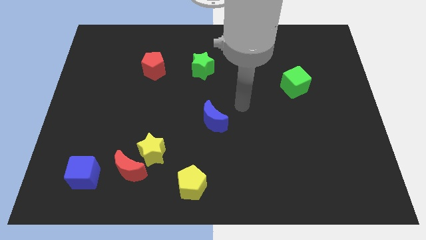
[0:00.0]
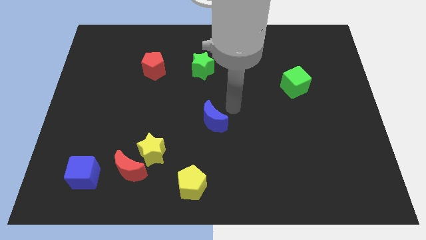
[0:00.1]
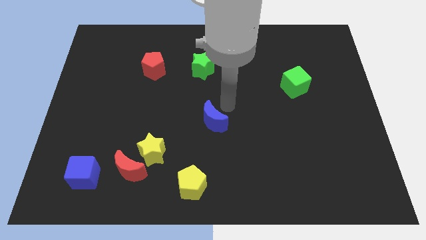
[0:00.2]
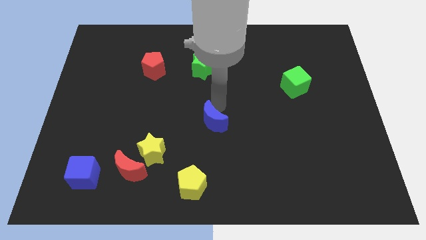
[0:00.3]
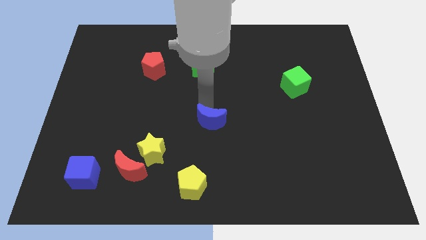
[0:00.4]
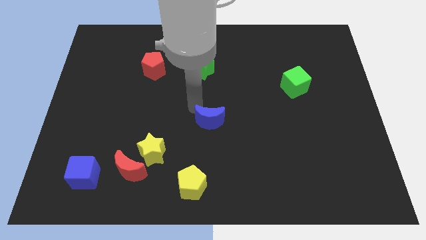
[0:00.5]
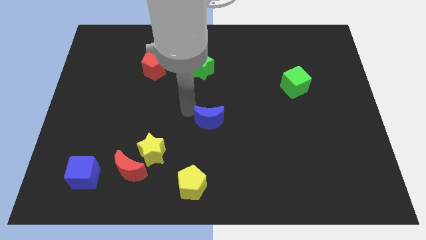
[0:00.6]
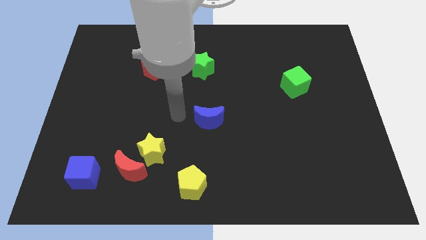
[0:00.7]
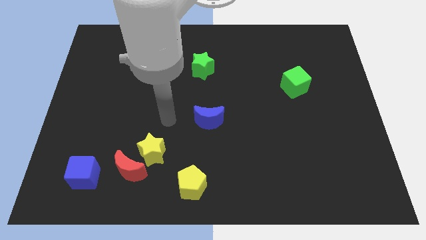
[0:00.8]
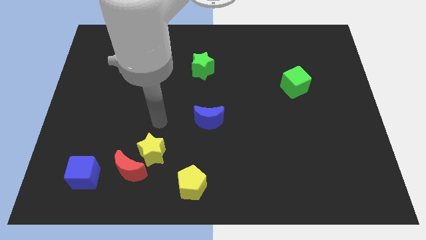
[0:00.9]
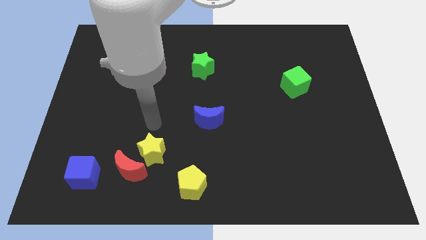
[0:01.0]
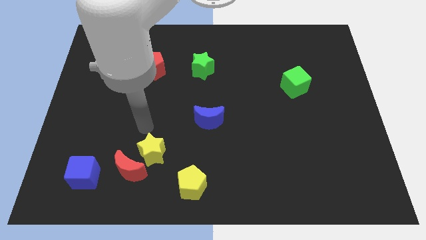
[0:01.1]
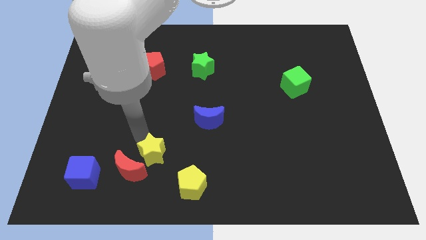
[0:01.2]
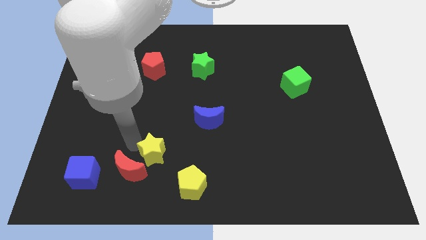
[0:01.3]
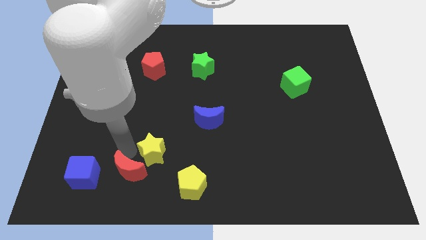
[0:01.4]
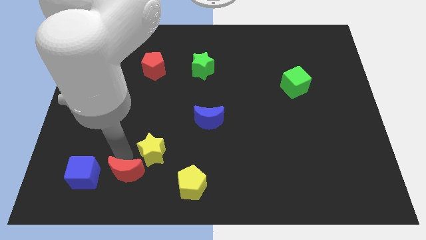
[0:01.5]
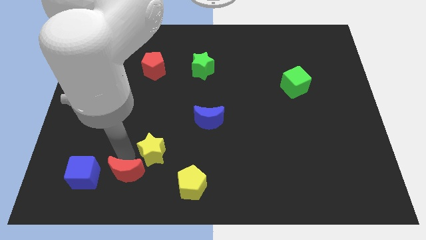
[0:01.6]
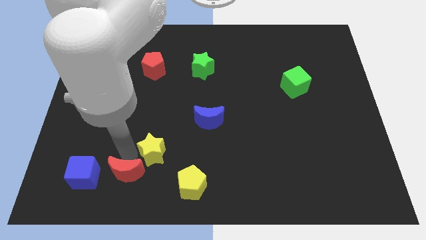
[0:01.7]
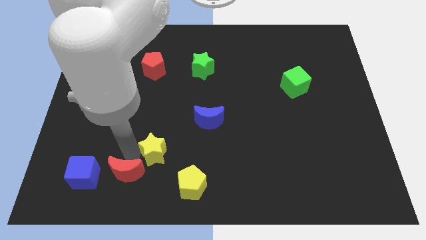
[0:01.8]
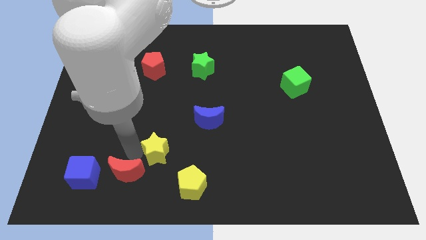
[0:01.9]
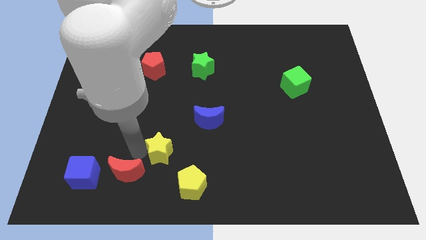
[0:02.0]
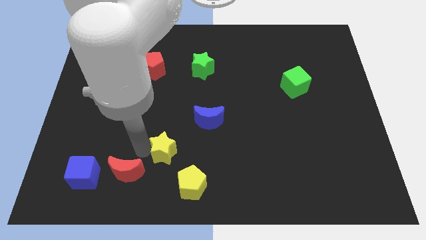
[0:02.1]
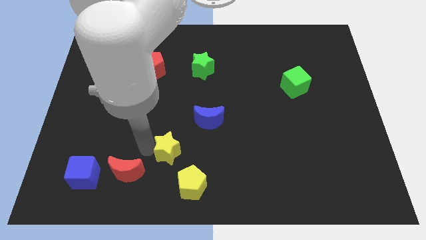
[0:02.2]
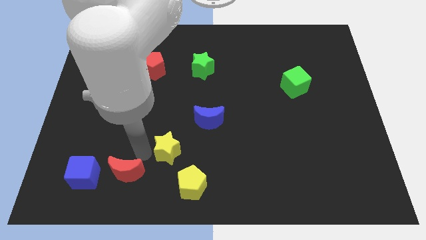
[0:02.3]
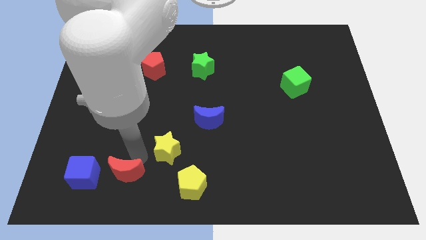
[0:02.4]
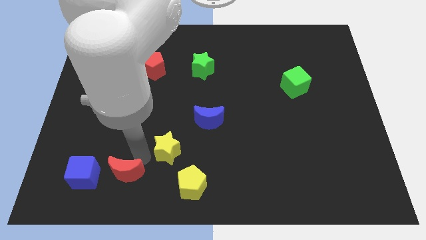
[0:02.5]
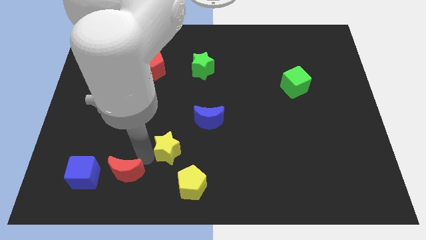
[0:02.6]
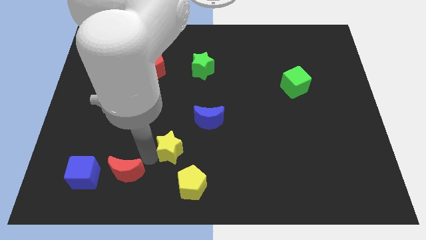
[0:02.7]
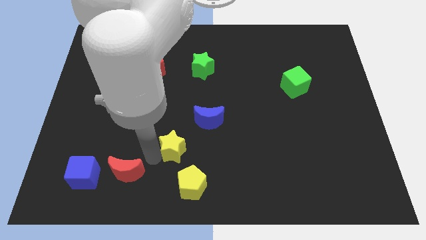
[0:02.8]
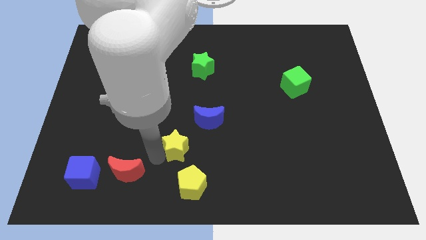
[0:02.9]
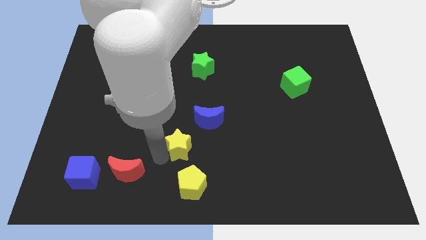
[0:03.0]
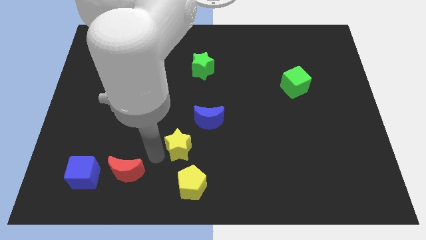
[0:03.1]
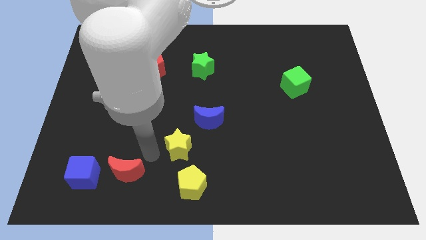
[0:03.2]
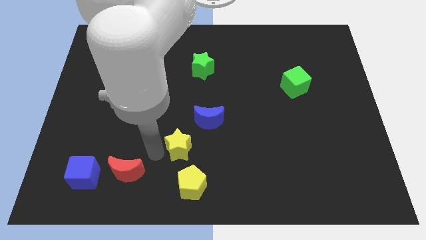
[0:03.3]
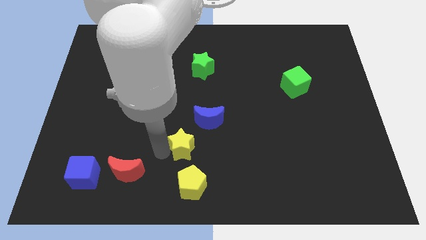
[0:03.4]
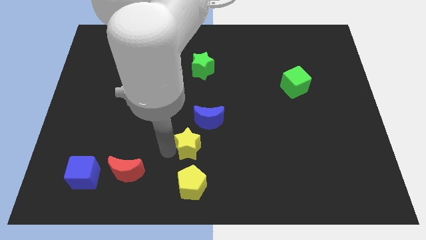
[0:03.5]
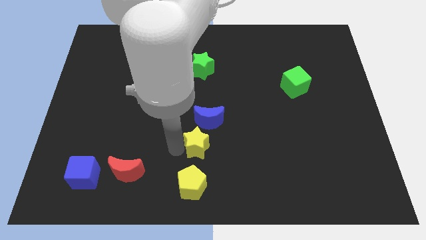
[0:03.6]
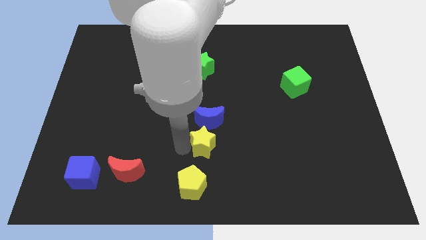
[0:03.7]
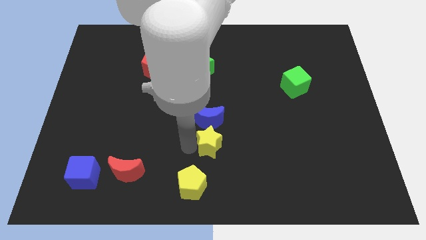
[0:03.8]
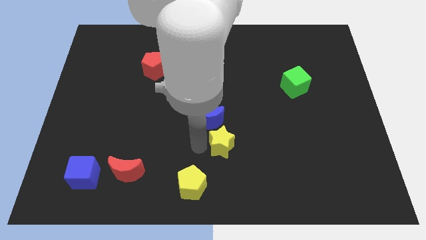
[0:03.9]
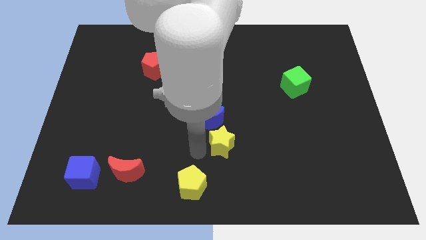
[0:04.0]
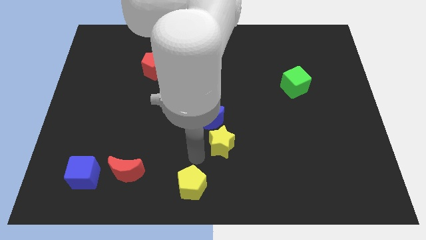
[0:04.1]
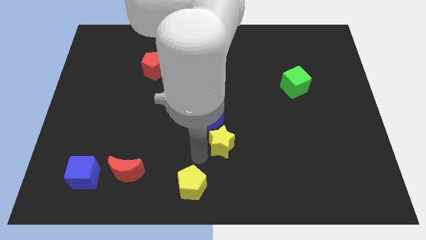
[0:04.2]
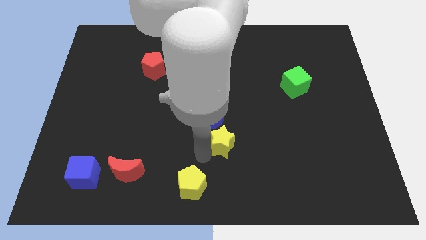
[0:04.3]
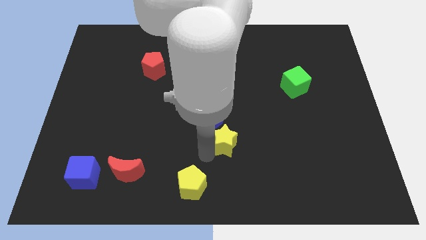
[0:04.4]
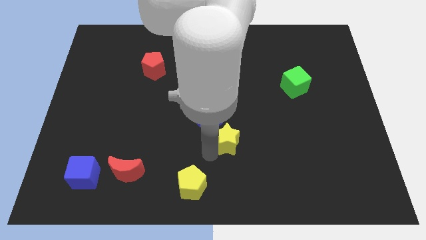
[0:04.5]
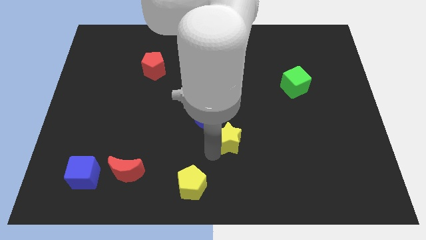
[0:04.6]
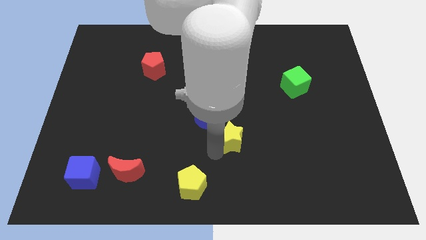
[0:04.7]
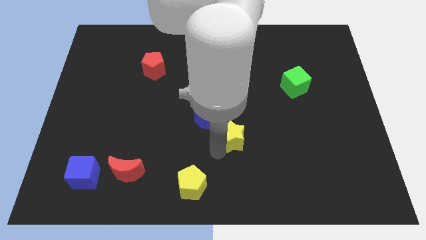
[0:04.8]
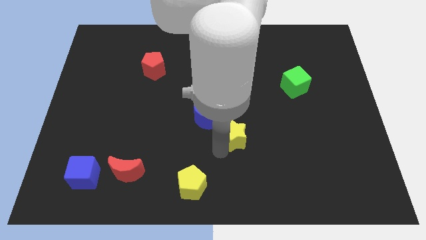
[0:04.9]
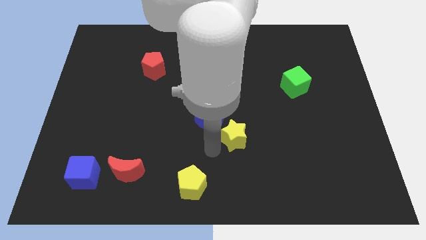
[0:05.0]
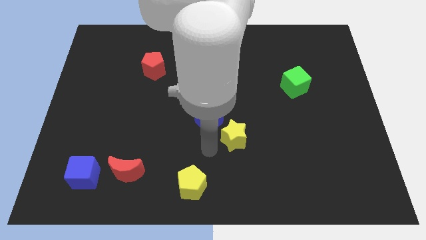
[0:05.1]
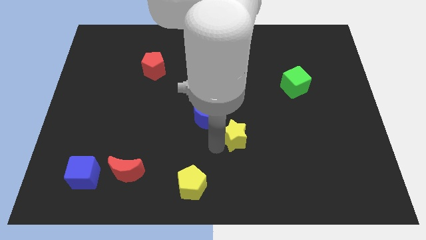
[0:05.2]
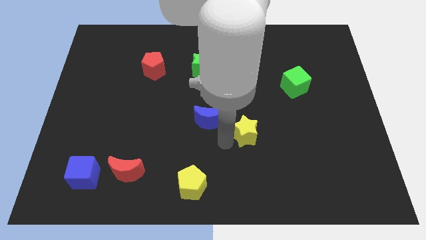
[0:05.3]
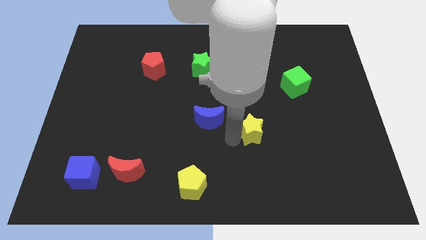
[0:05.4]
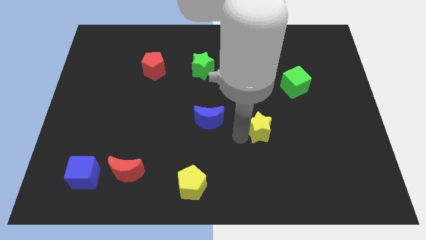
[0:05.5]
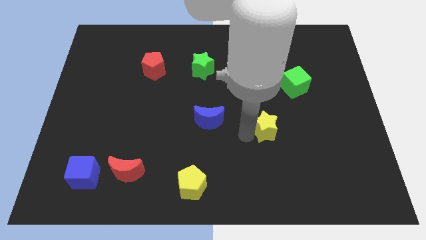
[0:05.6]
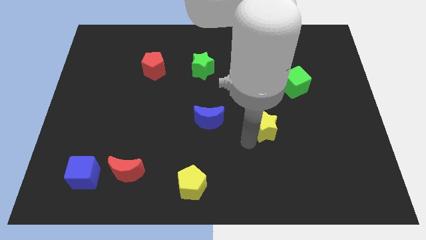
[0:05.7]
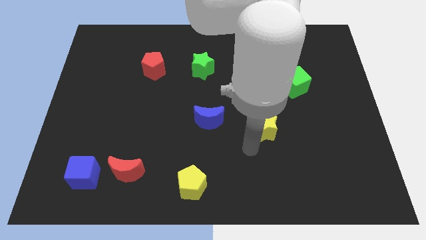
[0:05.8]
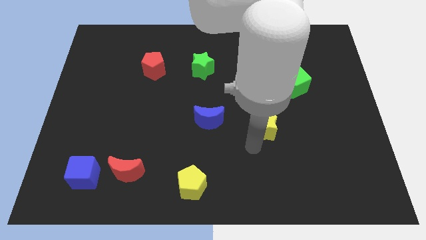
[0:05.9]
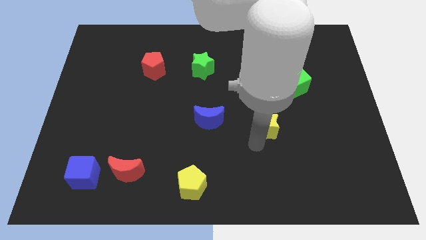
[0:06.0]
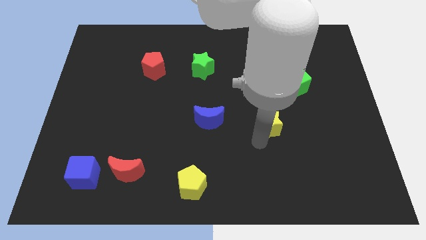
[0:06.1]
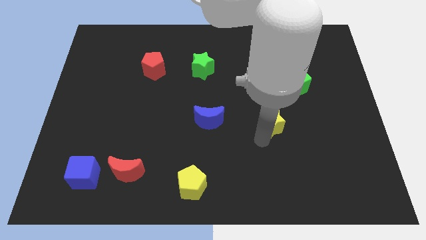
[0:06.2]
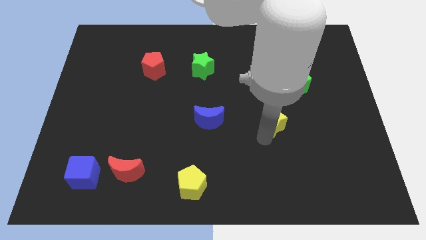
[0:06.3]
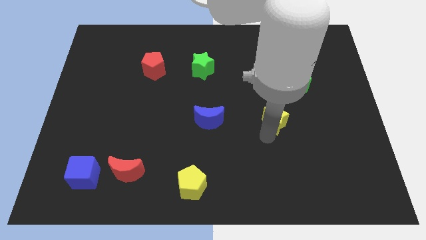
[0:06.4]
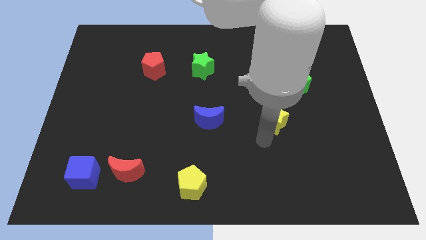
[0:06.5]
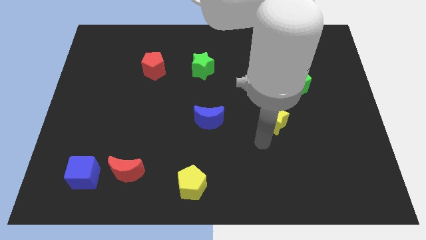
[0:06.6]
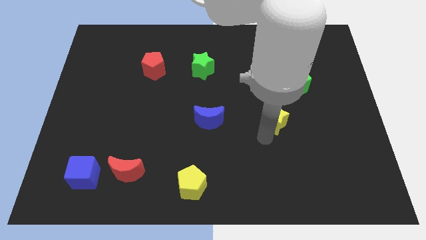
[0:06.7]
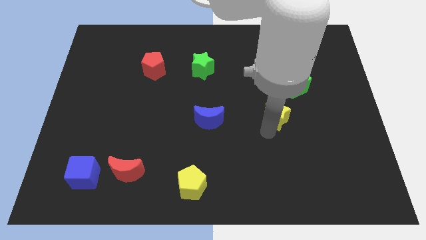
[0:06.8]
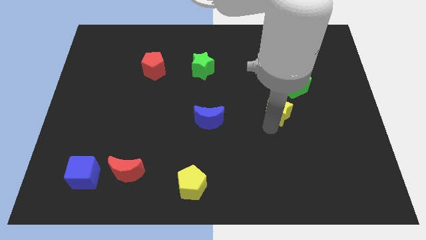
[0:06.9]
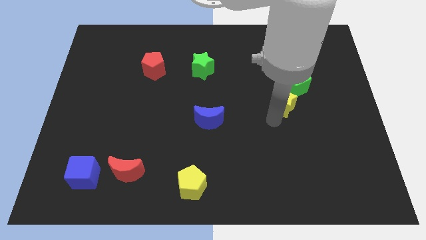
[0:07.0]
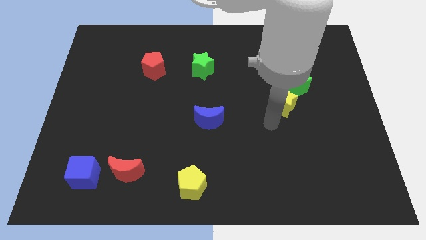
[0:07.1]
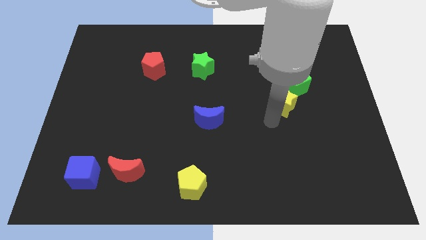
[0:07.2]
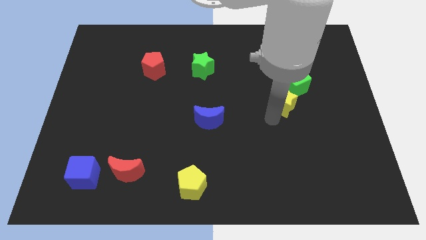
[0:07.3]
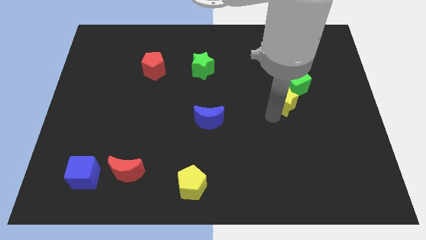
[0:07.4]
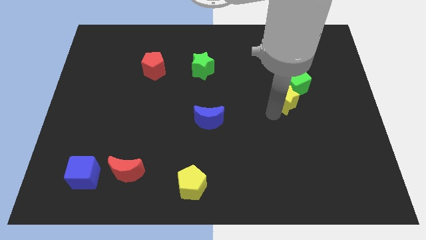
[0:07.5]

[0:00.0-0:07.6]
put the yellow star towards the green cube
